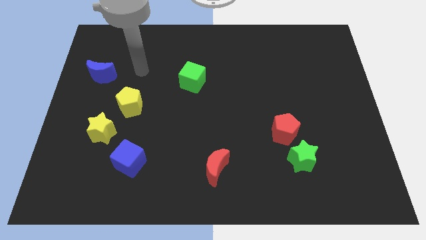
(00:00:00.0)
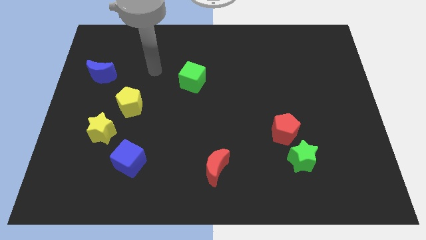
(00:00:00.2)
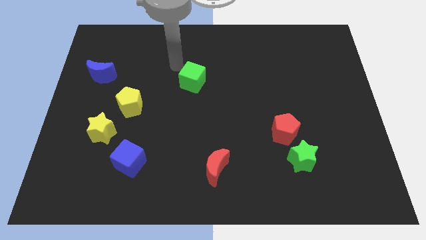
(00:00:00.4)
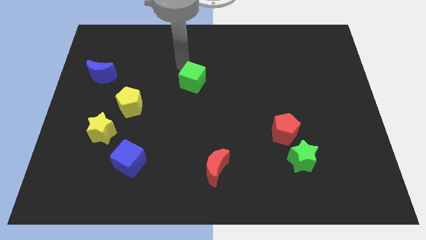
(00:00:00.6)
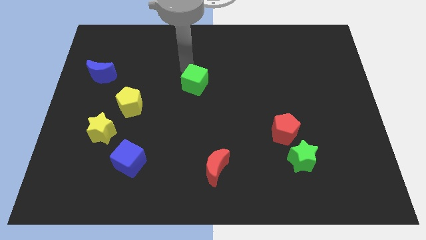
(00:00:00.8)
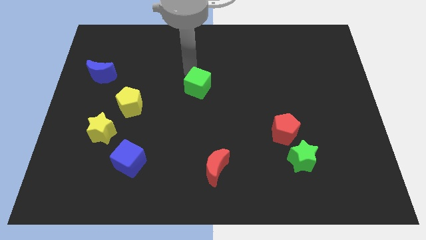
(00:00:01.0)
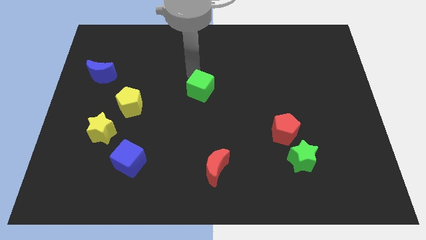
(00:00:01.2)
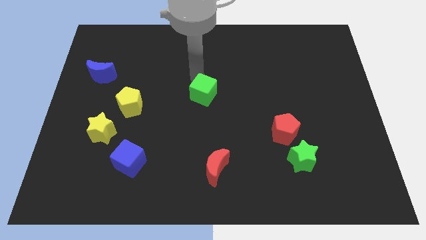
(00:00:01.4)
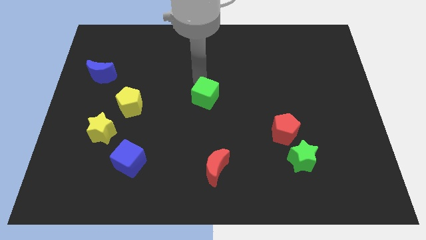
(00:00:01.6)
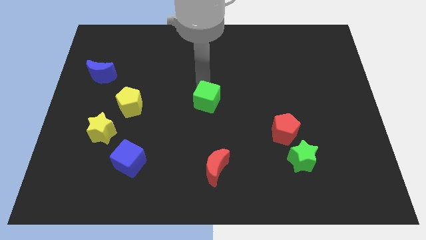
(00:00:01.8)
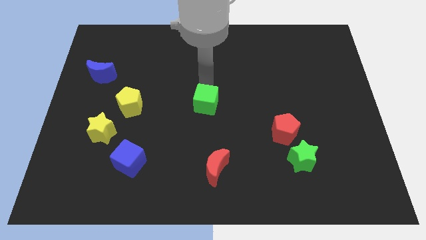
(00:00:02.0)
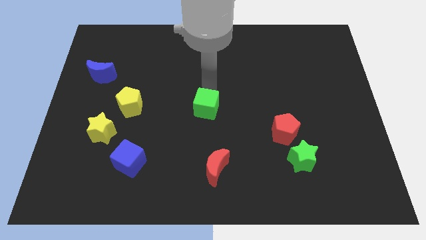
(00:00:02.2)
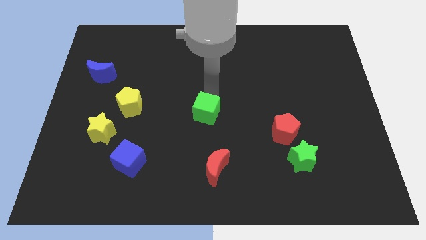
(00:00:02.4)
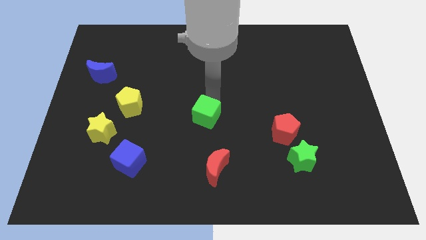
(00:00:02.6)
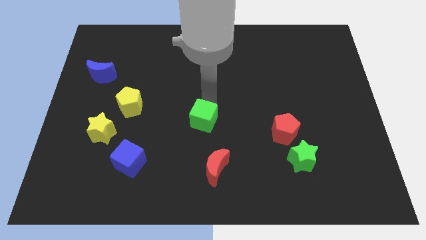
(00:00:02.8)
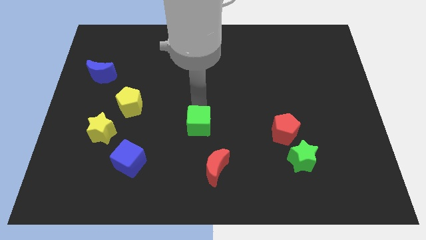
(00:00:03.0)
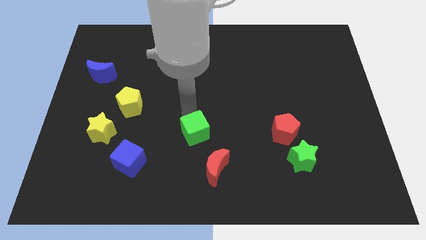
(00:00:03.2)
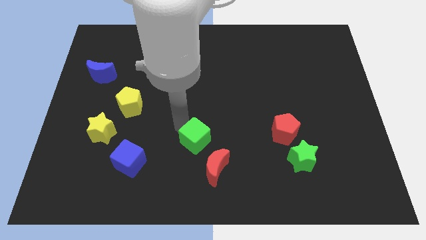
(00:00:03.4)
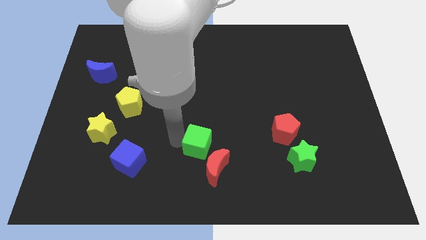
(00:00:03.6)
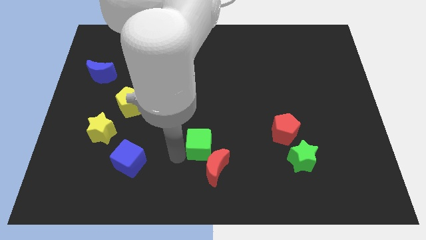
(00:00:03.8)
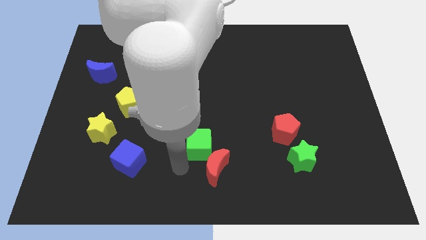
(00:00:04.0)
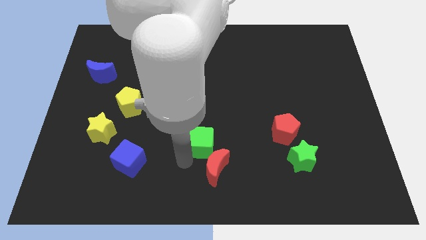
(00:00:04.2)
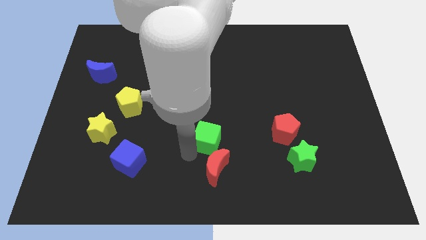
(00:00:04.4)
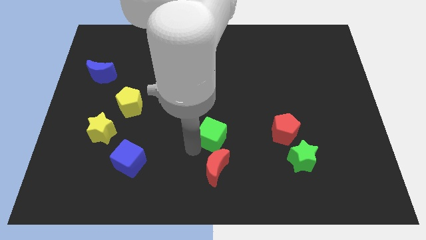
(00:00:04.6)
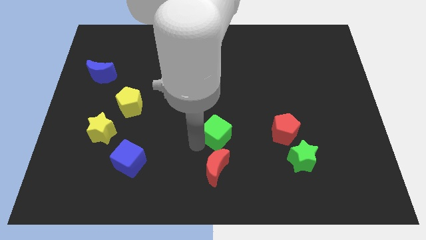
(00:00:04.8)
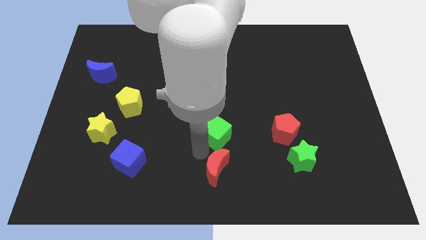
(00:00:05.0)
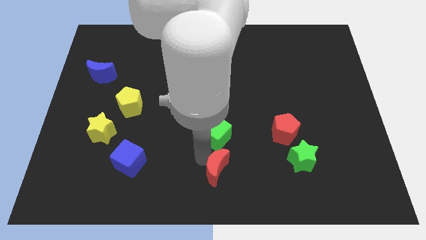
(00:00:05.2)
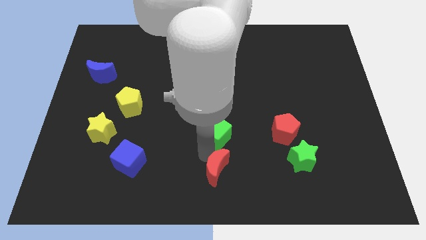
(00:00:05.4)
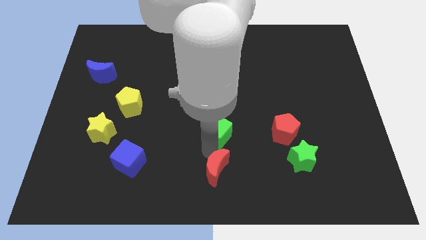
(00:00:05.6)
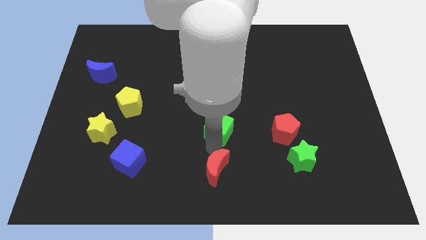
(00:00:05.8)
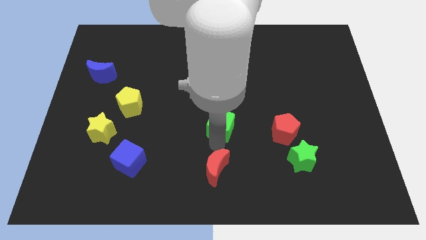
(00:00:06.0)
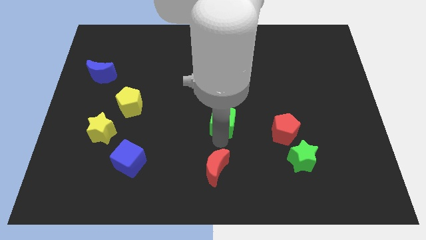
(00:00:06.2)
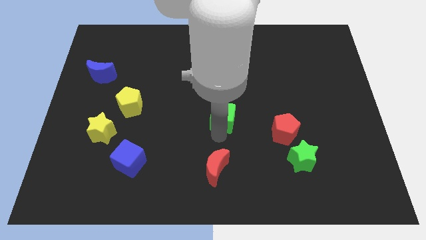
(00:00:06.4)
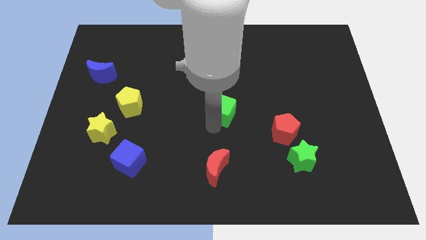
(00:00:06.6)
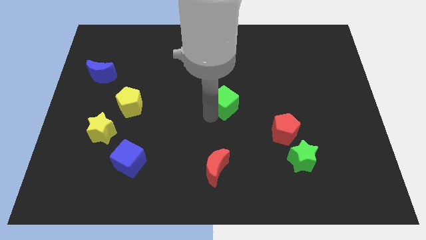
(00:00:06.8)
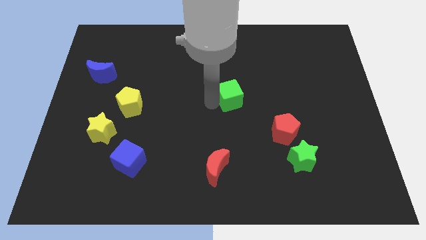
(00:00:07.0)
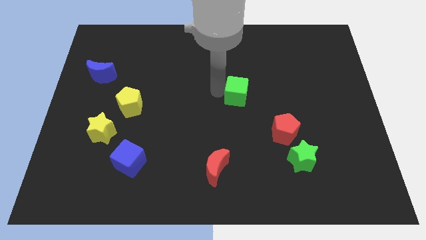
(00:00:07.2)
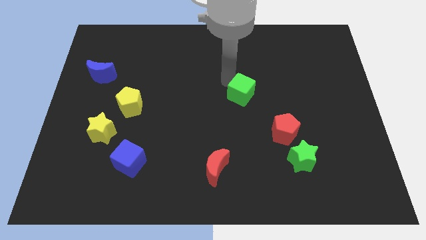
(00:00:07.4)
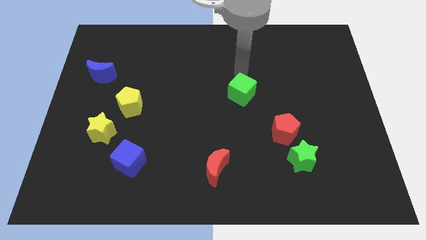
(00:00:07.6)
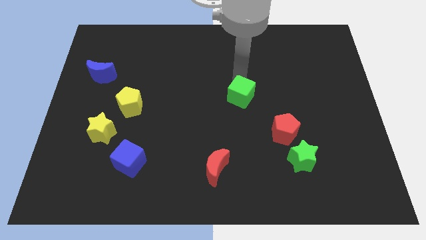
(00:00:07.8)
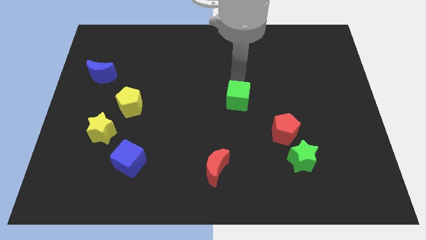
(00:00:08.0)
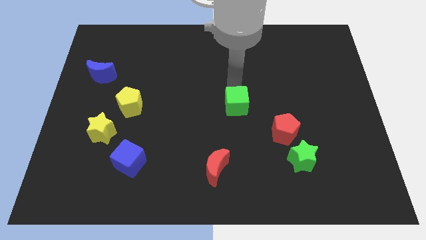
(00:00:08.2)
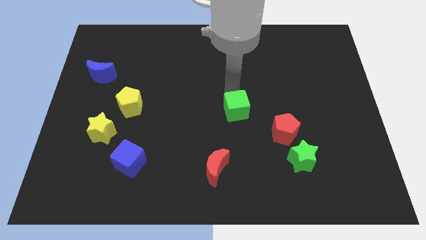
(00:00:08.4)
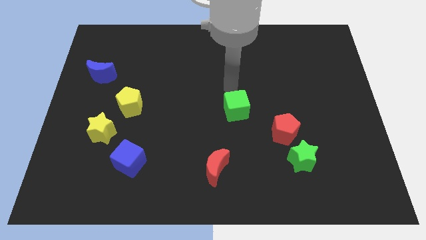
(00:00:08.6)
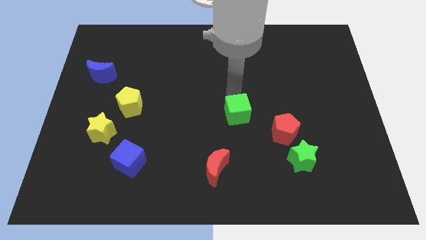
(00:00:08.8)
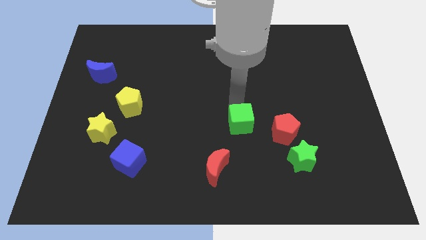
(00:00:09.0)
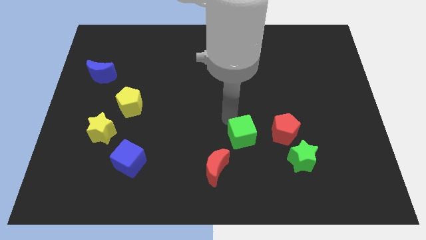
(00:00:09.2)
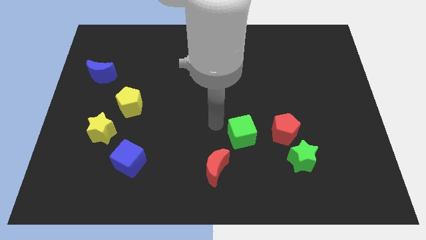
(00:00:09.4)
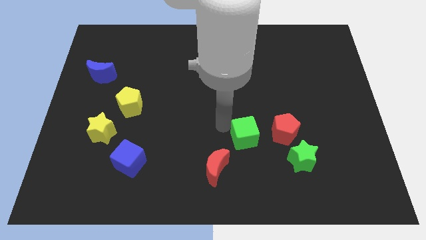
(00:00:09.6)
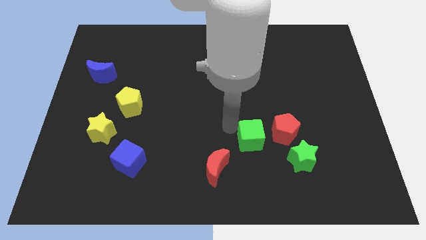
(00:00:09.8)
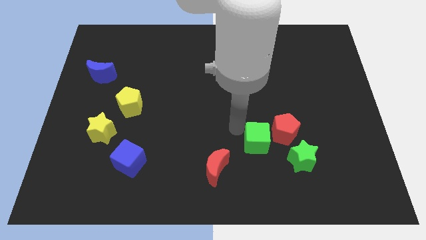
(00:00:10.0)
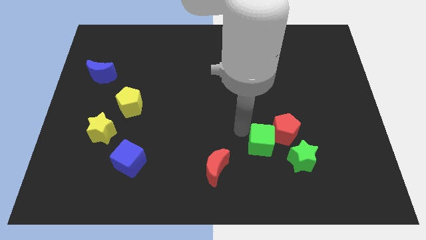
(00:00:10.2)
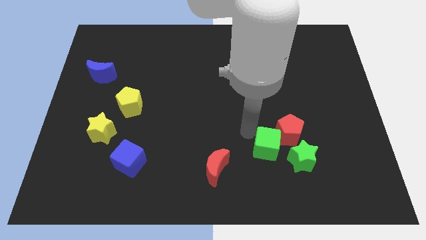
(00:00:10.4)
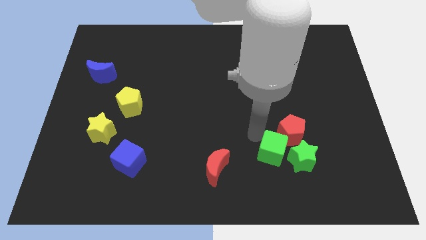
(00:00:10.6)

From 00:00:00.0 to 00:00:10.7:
put the green cube towards the green star

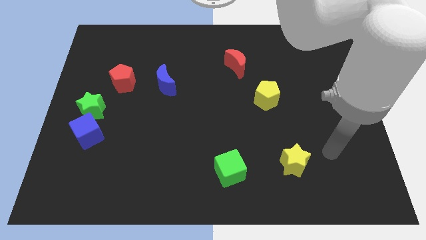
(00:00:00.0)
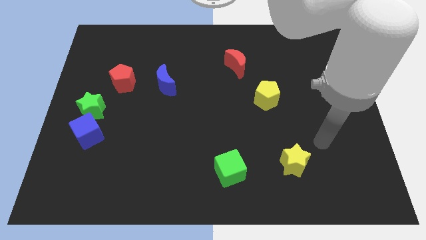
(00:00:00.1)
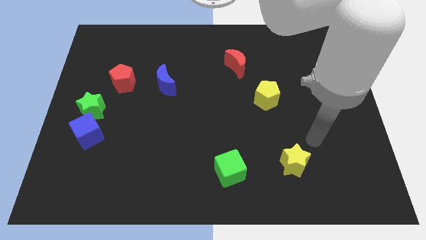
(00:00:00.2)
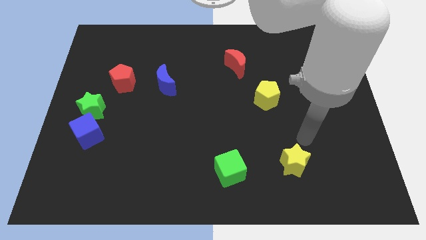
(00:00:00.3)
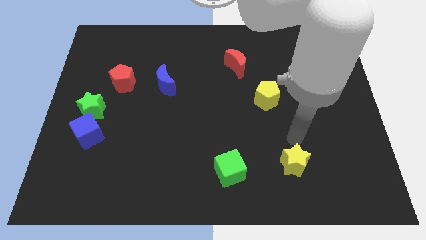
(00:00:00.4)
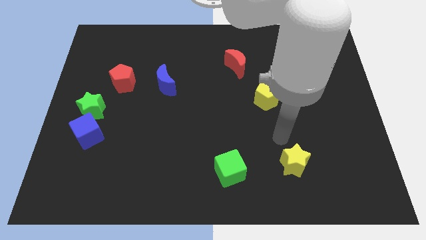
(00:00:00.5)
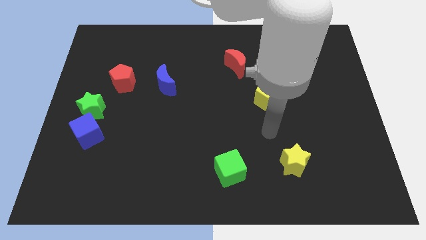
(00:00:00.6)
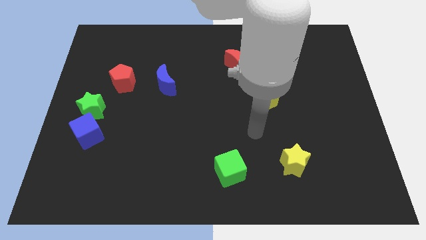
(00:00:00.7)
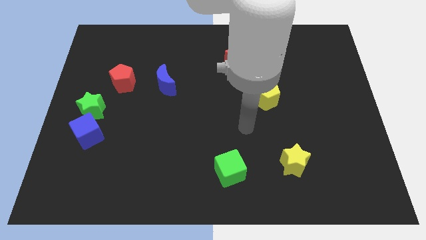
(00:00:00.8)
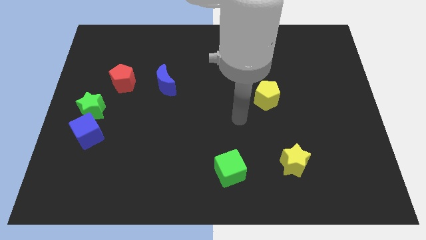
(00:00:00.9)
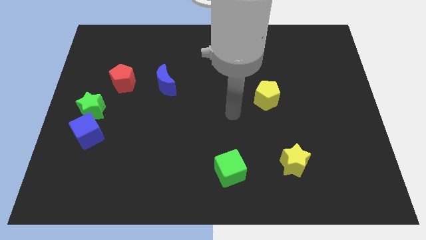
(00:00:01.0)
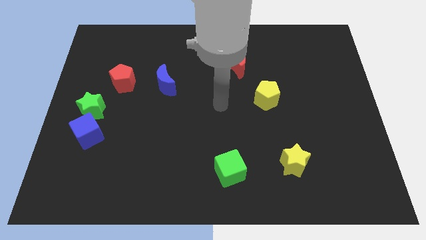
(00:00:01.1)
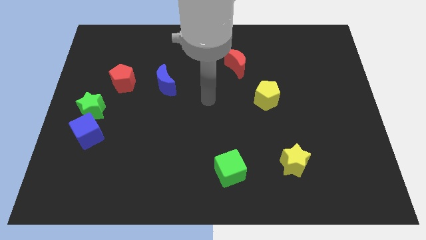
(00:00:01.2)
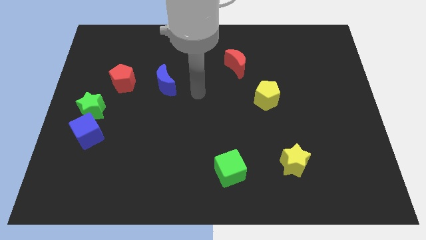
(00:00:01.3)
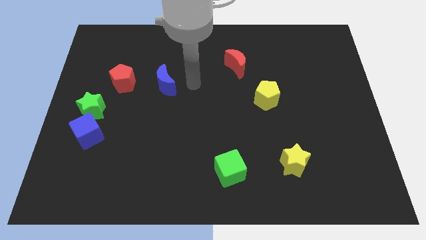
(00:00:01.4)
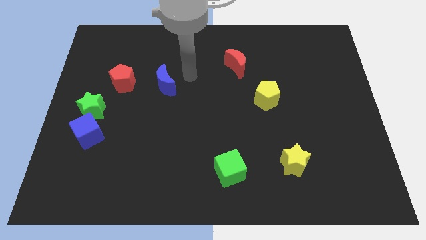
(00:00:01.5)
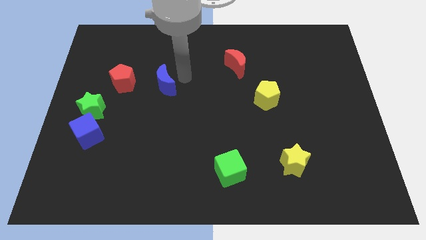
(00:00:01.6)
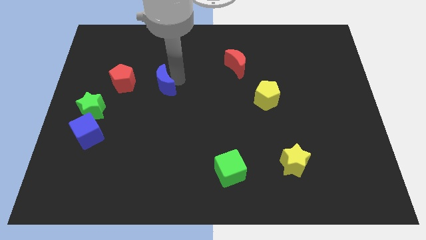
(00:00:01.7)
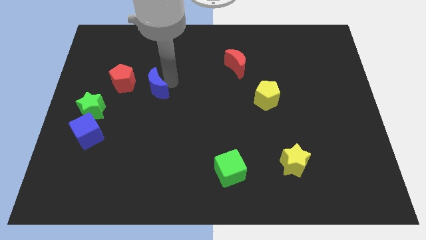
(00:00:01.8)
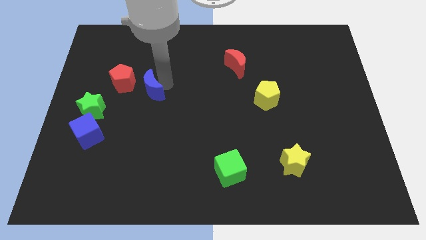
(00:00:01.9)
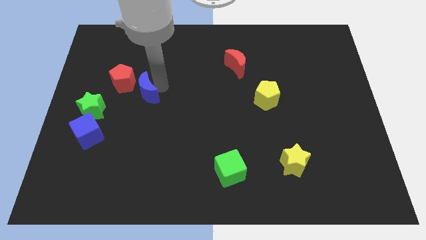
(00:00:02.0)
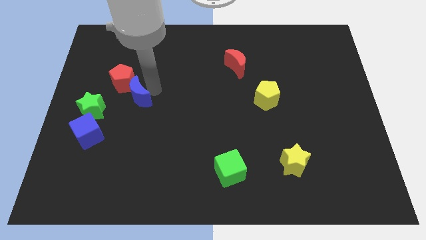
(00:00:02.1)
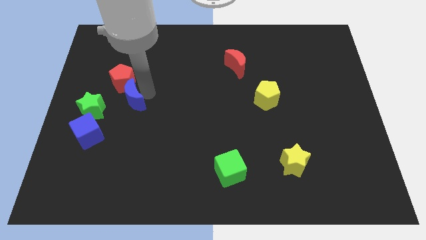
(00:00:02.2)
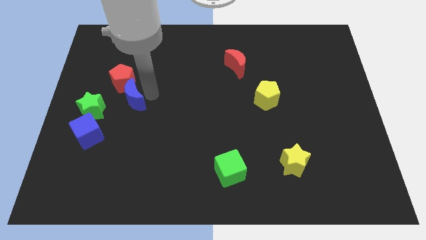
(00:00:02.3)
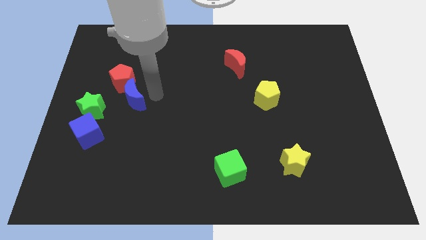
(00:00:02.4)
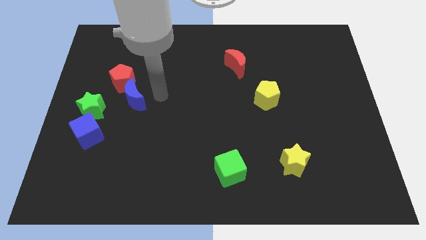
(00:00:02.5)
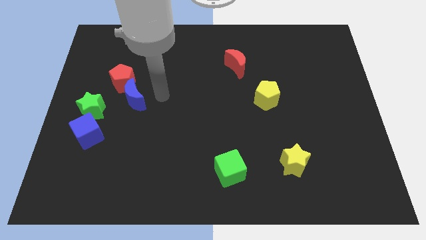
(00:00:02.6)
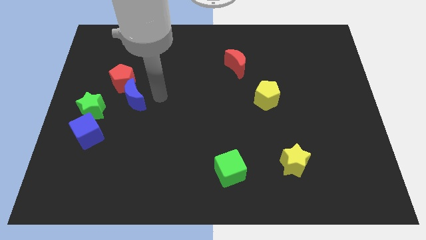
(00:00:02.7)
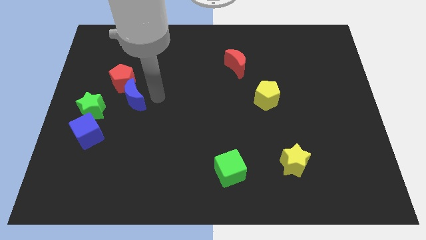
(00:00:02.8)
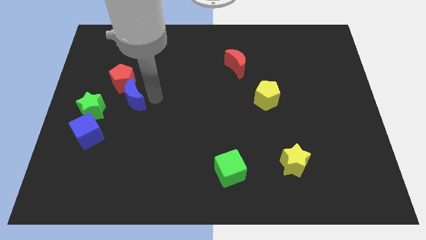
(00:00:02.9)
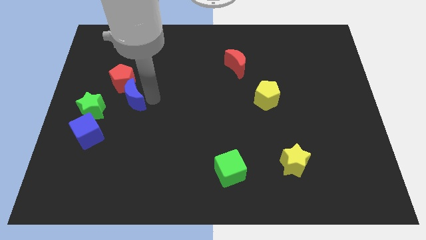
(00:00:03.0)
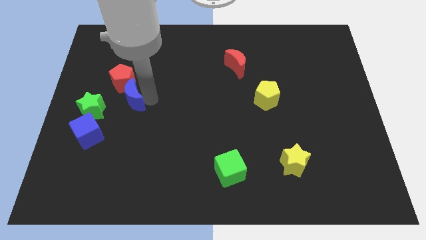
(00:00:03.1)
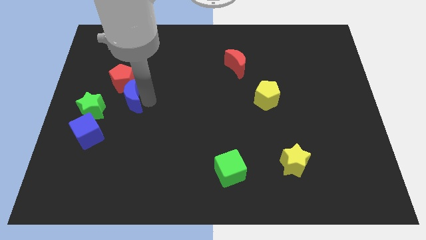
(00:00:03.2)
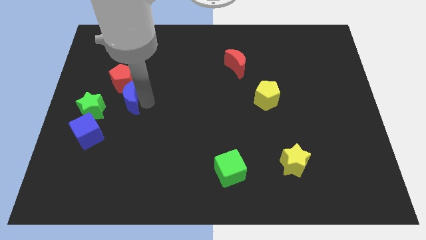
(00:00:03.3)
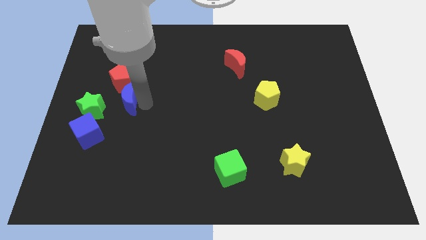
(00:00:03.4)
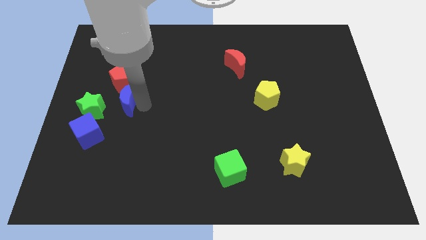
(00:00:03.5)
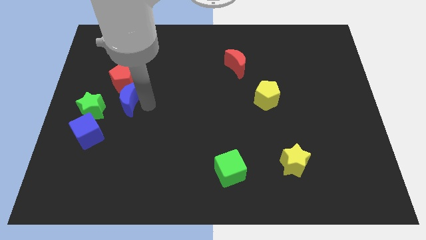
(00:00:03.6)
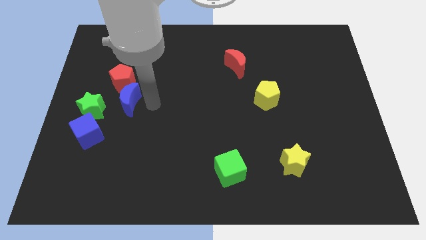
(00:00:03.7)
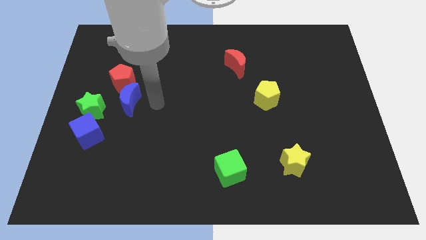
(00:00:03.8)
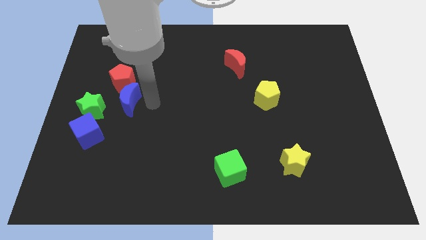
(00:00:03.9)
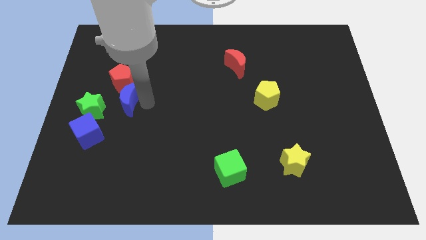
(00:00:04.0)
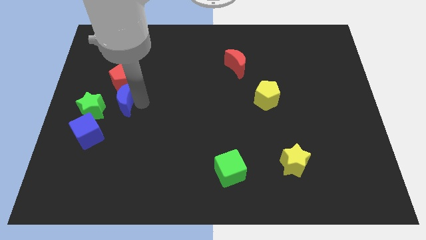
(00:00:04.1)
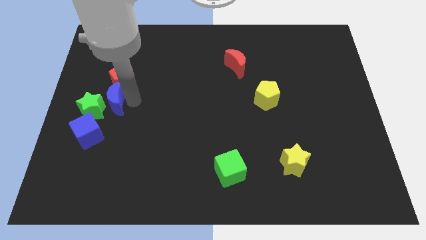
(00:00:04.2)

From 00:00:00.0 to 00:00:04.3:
move the blue moon close to the green star
